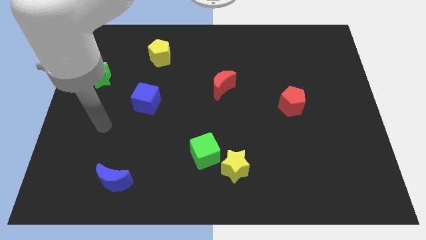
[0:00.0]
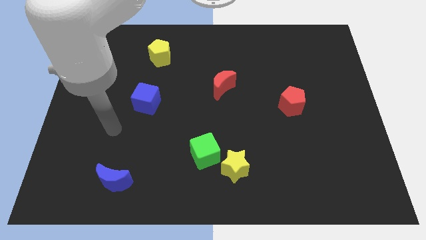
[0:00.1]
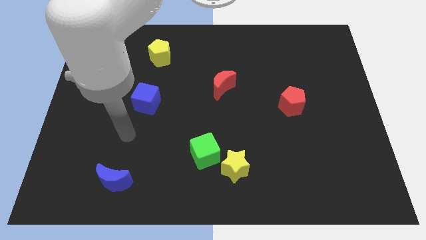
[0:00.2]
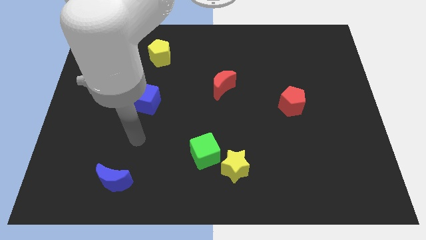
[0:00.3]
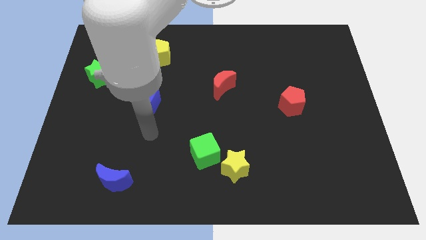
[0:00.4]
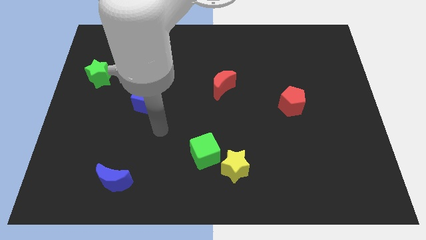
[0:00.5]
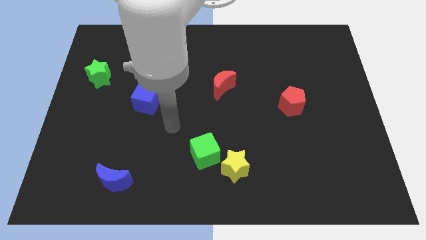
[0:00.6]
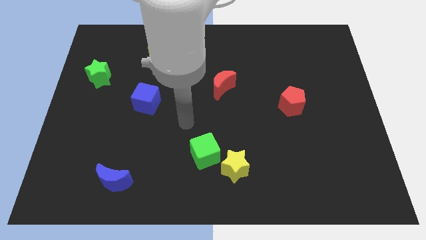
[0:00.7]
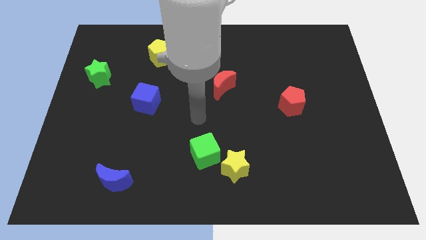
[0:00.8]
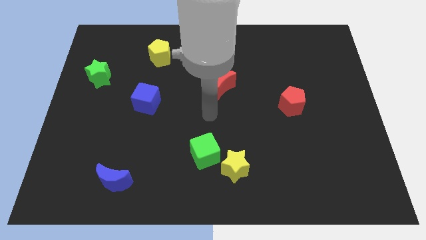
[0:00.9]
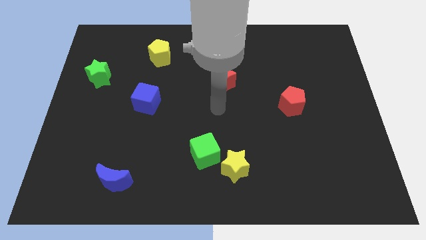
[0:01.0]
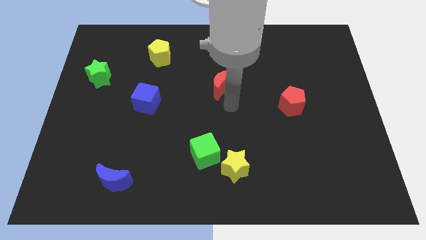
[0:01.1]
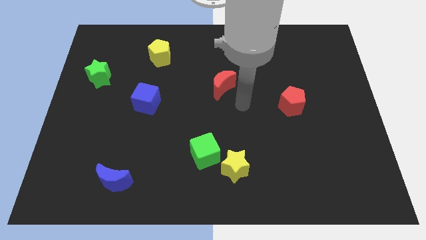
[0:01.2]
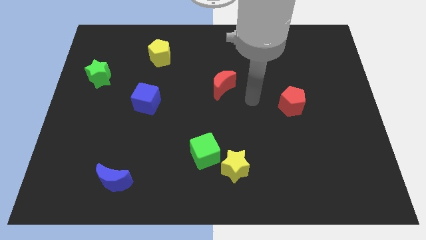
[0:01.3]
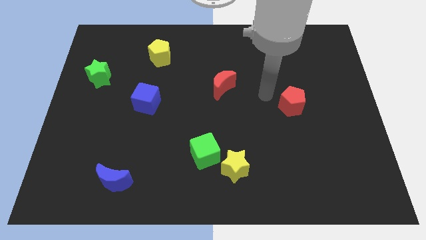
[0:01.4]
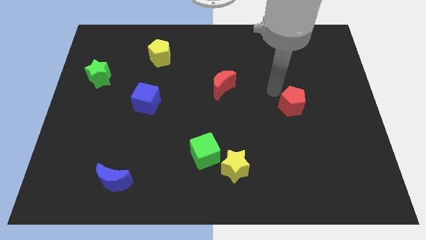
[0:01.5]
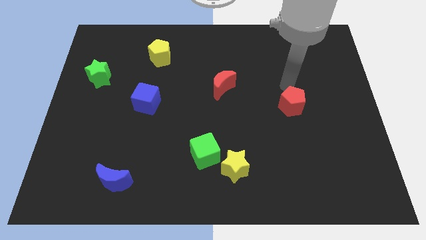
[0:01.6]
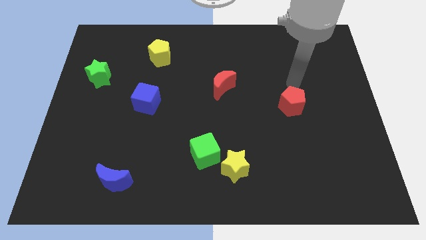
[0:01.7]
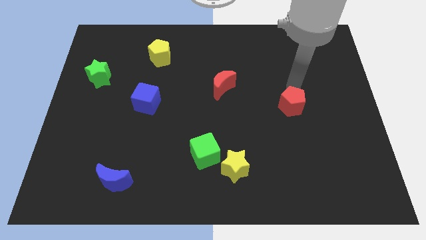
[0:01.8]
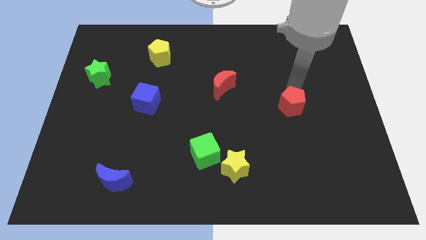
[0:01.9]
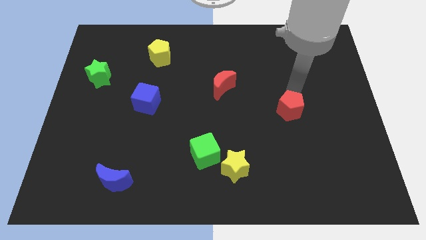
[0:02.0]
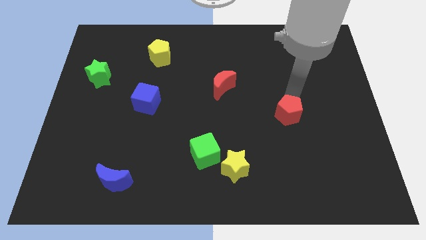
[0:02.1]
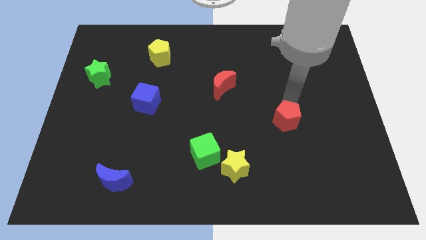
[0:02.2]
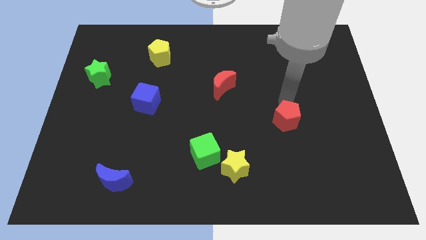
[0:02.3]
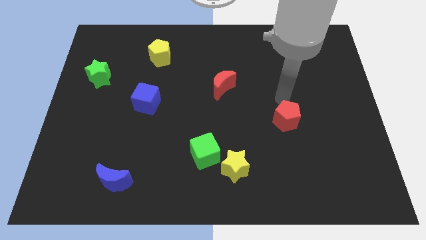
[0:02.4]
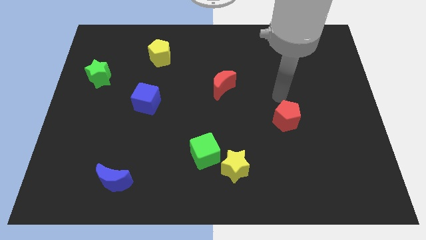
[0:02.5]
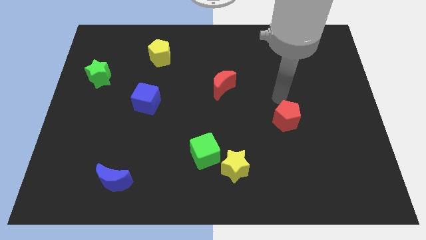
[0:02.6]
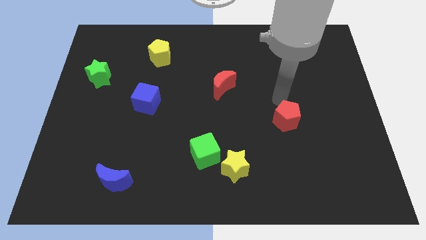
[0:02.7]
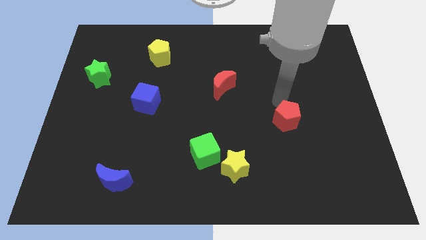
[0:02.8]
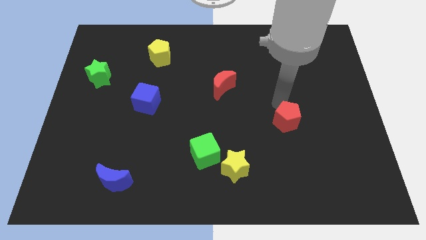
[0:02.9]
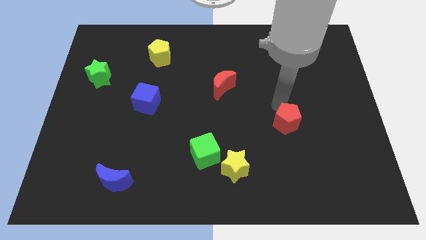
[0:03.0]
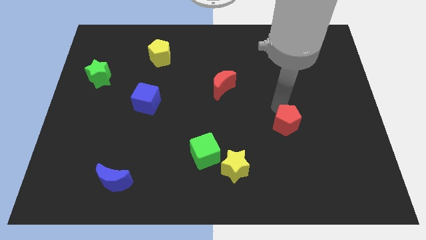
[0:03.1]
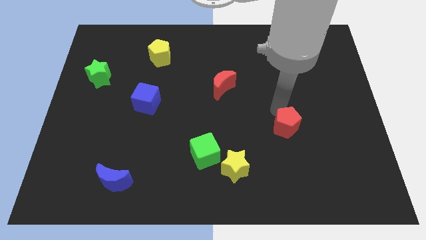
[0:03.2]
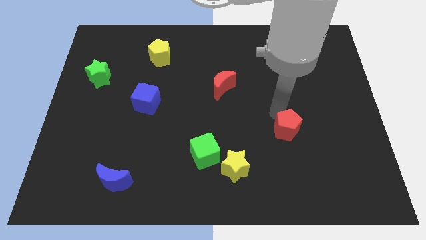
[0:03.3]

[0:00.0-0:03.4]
slightly move the red pentagon downwards

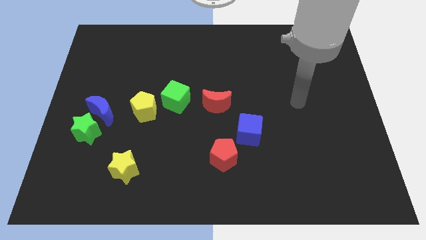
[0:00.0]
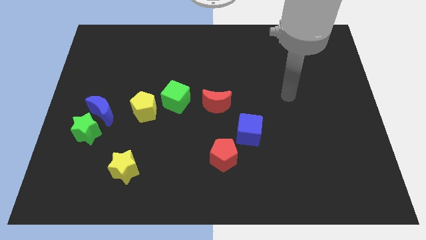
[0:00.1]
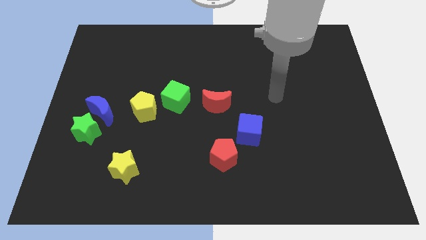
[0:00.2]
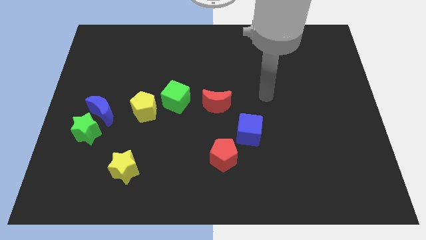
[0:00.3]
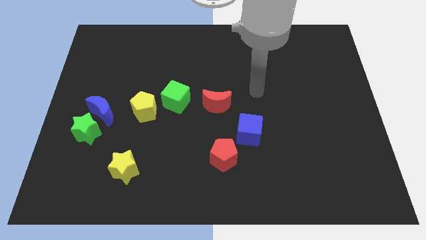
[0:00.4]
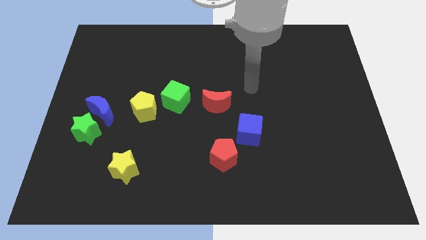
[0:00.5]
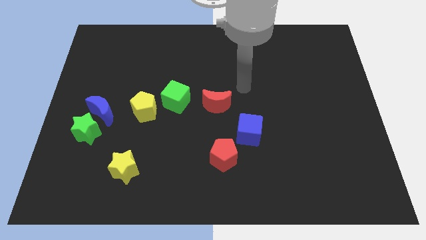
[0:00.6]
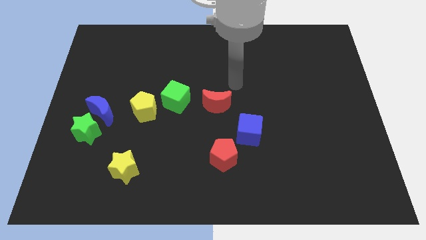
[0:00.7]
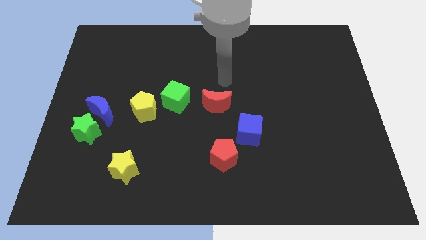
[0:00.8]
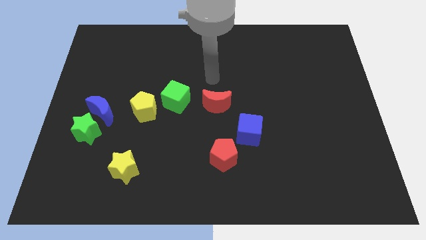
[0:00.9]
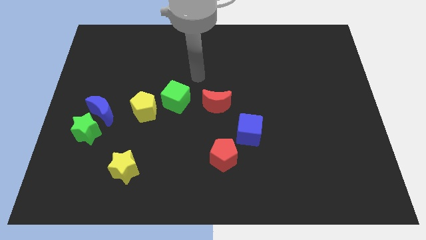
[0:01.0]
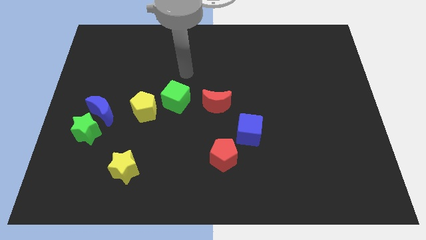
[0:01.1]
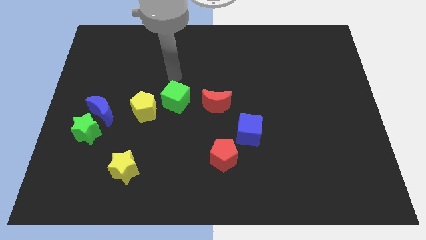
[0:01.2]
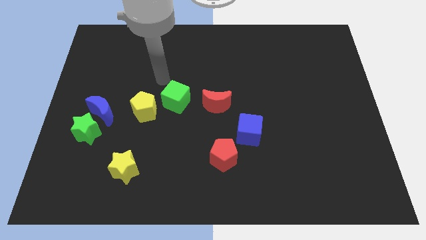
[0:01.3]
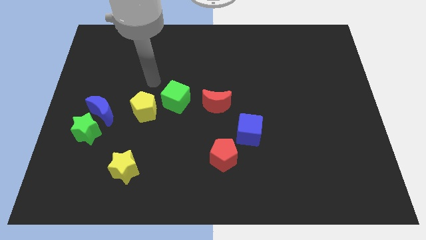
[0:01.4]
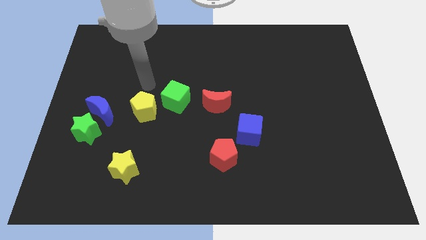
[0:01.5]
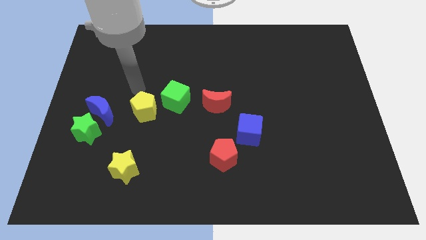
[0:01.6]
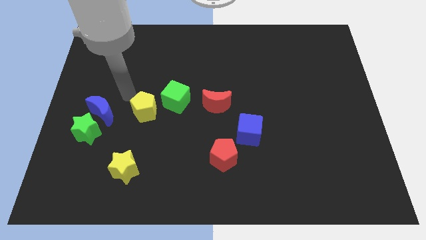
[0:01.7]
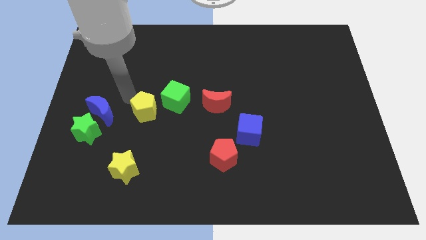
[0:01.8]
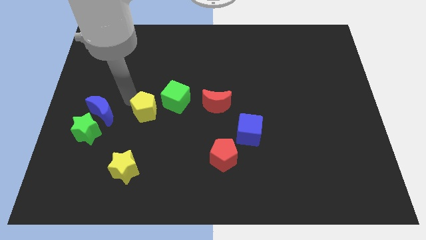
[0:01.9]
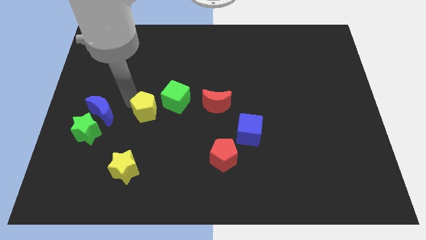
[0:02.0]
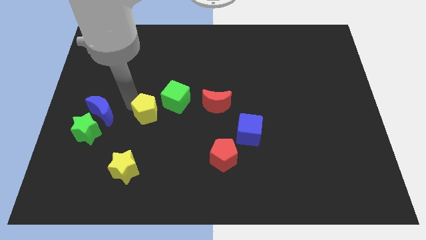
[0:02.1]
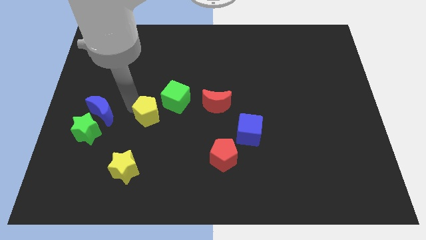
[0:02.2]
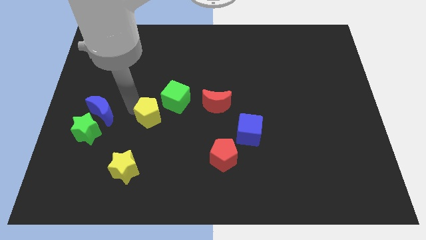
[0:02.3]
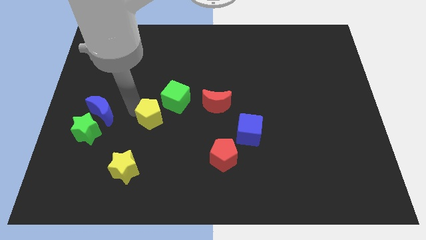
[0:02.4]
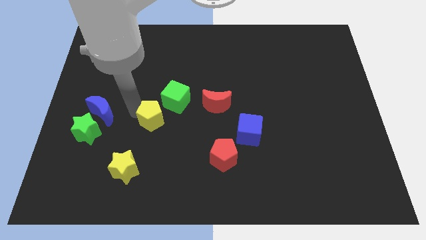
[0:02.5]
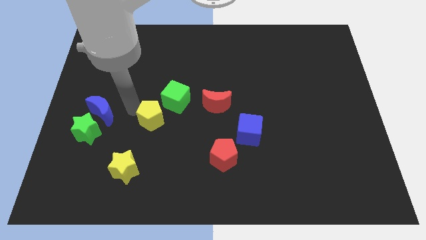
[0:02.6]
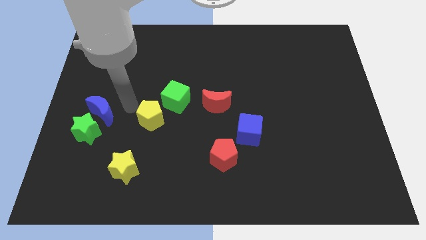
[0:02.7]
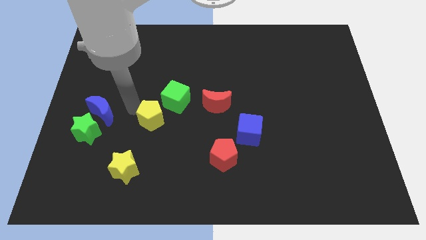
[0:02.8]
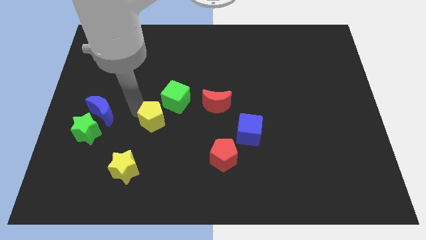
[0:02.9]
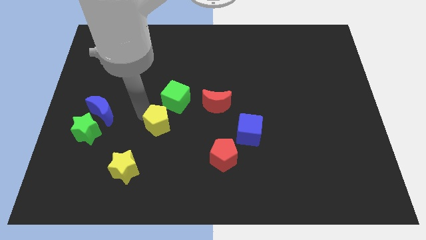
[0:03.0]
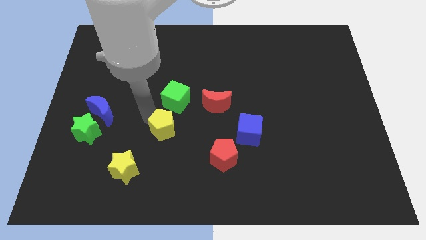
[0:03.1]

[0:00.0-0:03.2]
push the yellow pentagon a bit downwards and right diagonally

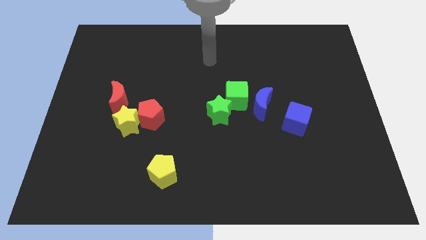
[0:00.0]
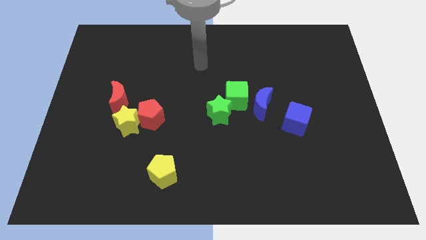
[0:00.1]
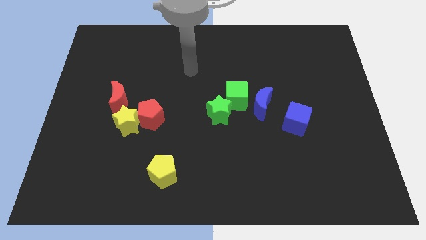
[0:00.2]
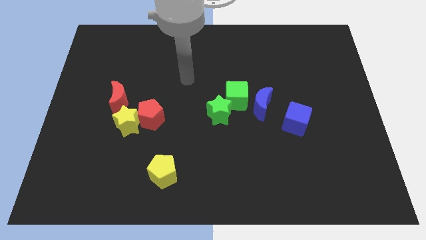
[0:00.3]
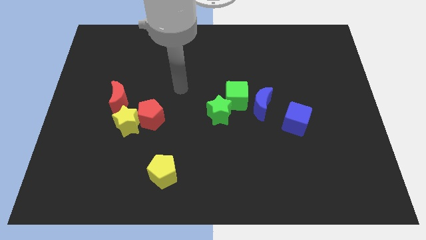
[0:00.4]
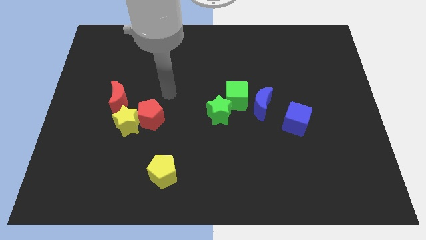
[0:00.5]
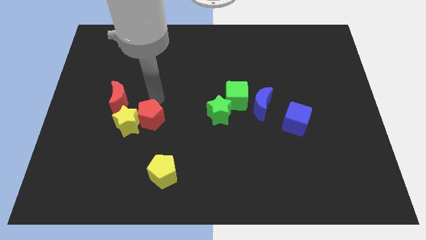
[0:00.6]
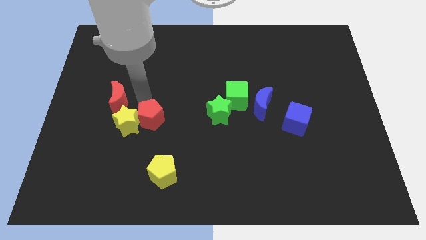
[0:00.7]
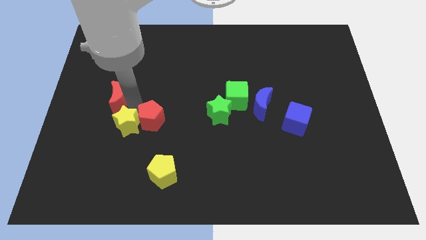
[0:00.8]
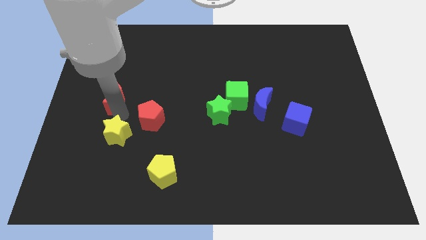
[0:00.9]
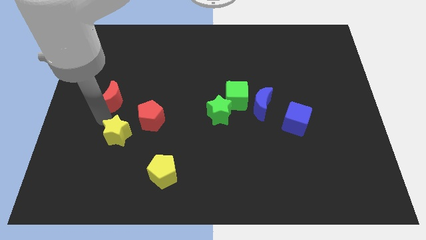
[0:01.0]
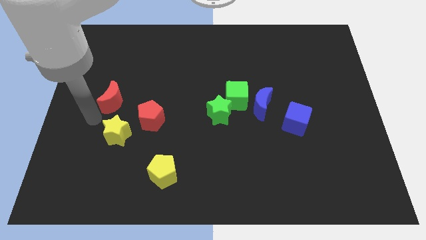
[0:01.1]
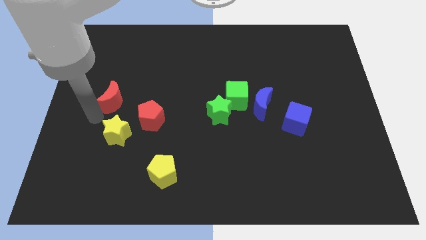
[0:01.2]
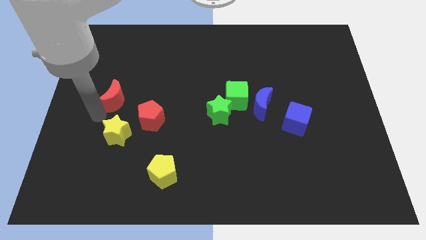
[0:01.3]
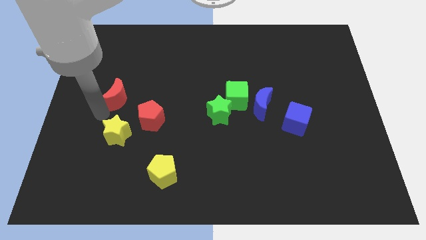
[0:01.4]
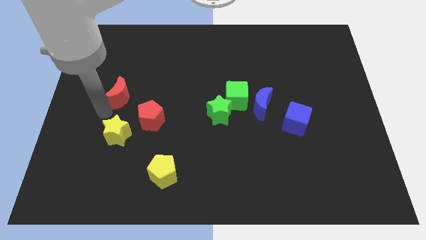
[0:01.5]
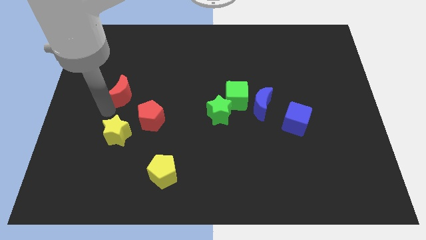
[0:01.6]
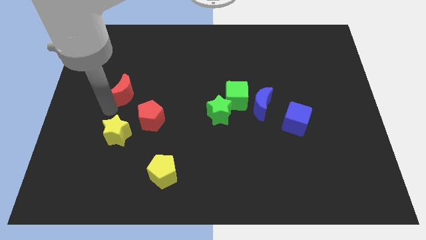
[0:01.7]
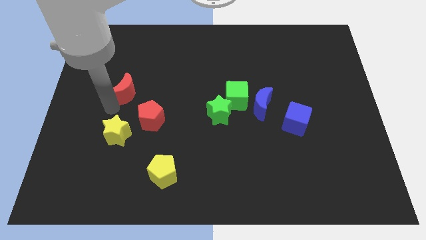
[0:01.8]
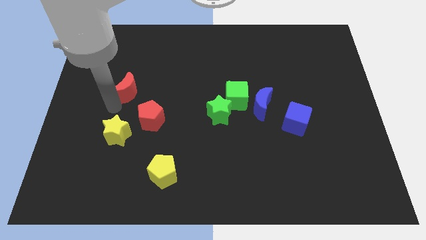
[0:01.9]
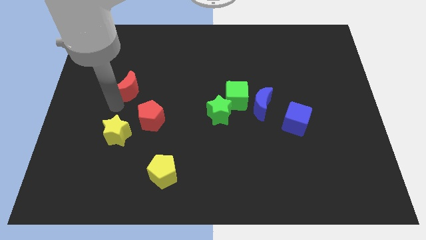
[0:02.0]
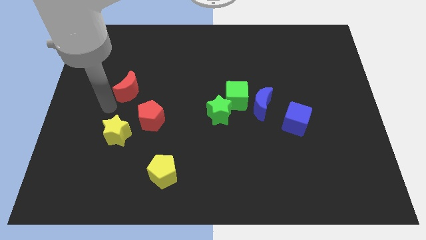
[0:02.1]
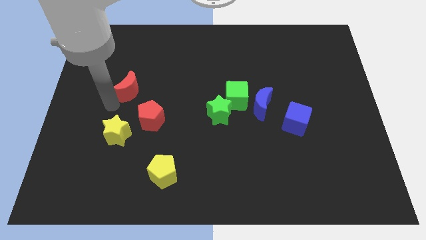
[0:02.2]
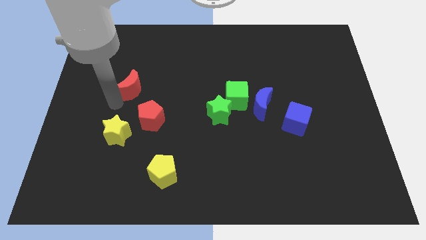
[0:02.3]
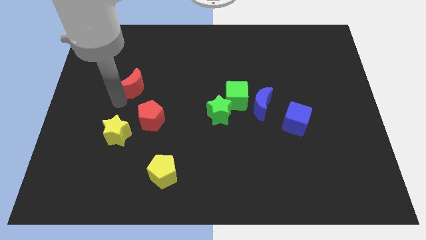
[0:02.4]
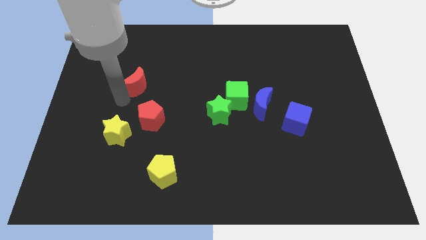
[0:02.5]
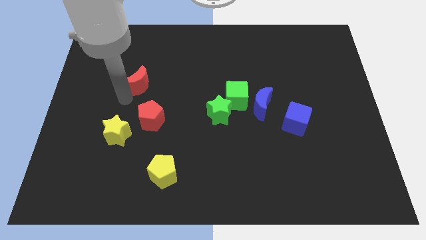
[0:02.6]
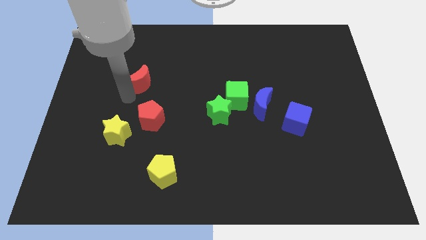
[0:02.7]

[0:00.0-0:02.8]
slightly slide the red moon diagonally up and right
